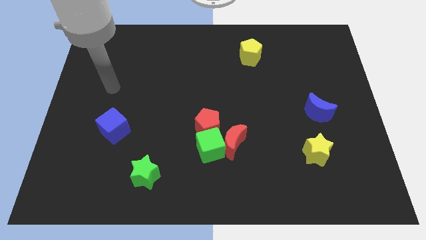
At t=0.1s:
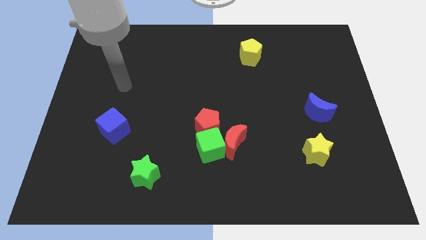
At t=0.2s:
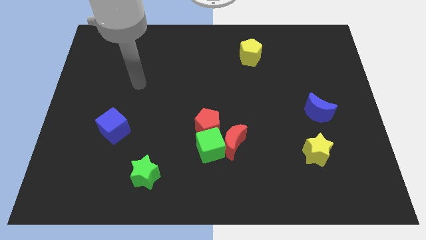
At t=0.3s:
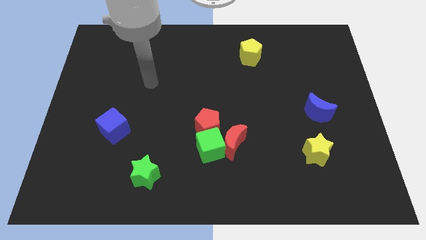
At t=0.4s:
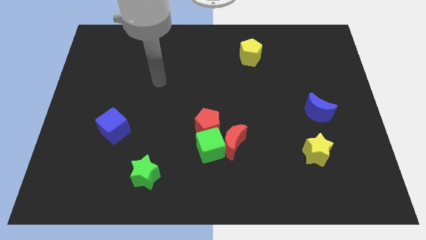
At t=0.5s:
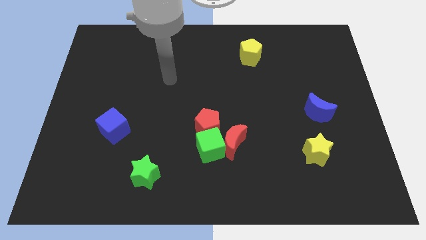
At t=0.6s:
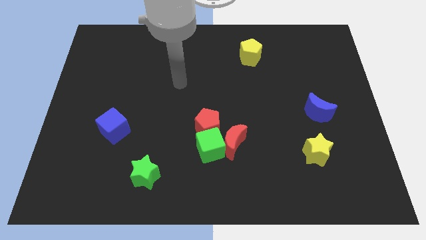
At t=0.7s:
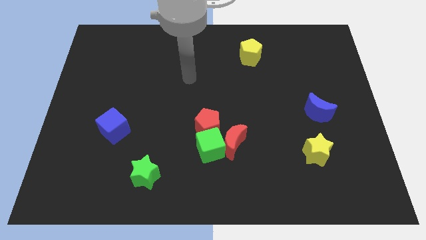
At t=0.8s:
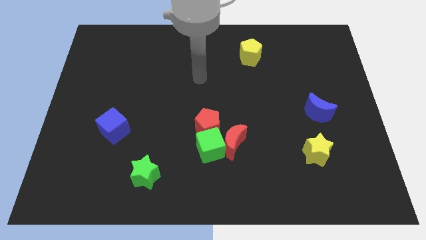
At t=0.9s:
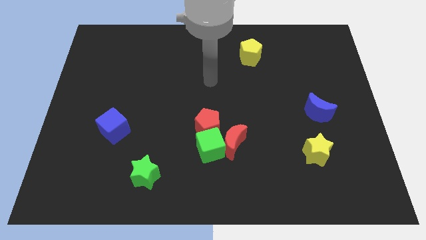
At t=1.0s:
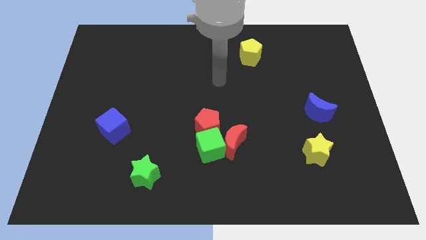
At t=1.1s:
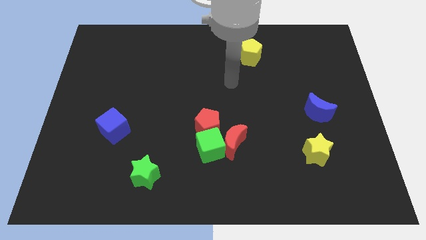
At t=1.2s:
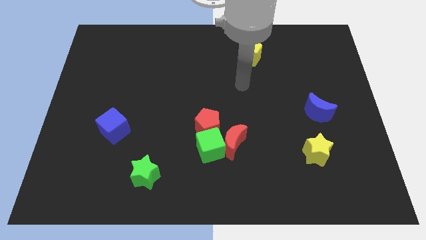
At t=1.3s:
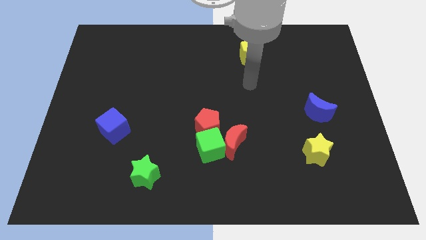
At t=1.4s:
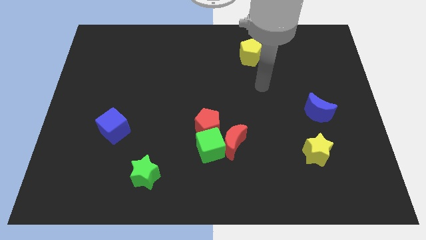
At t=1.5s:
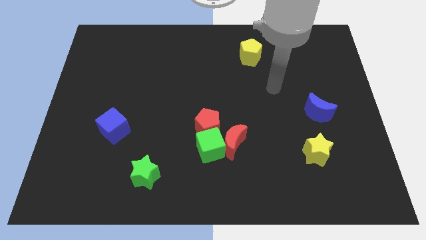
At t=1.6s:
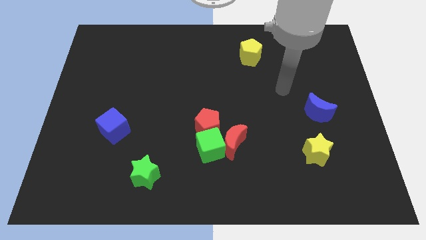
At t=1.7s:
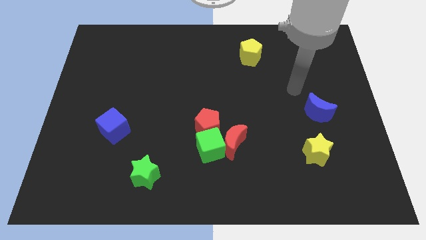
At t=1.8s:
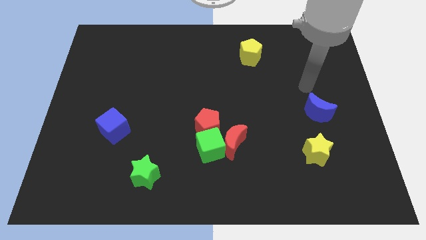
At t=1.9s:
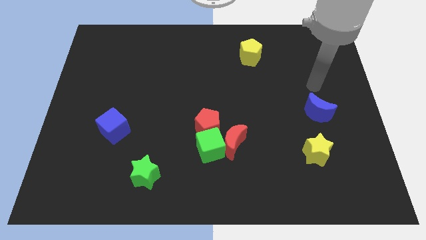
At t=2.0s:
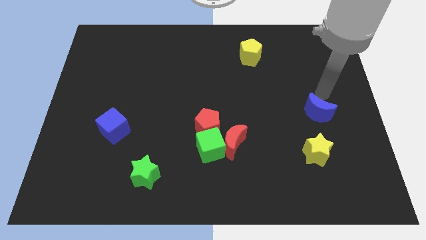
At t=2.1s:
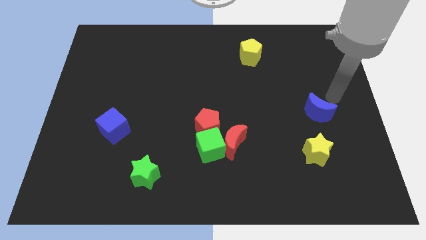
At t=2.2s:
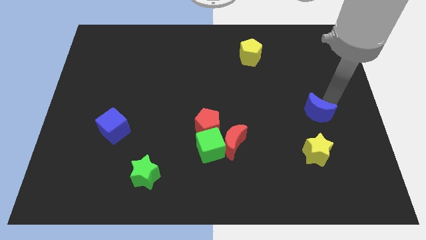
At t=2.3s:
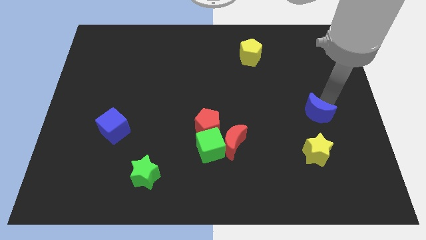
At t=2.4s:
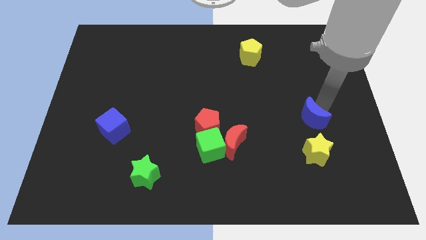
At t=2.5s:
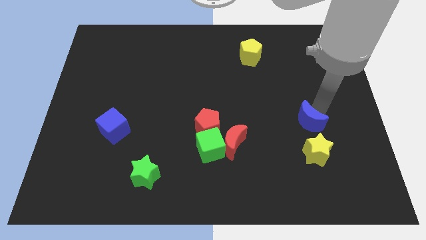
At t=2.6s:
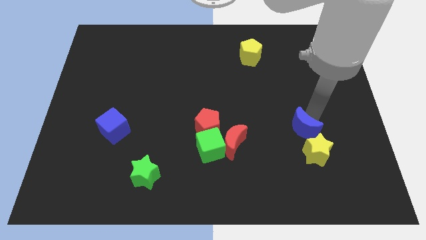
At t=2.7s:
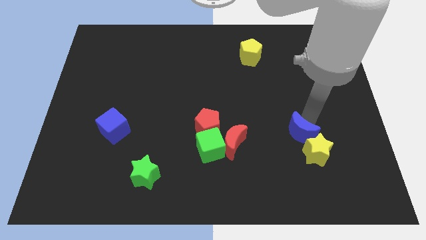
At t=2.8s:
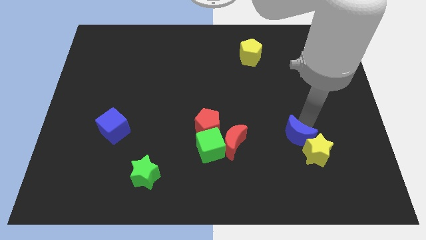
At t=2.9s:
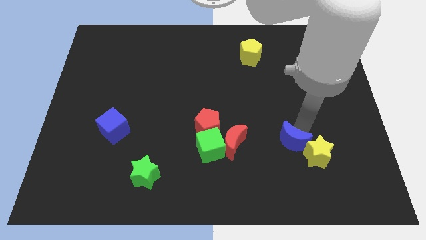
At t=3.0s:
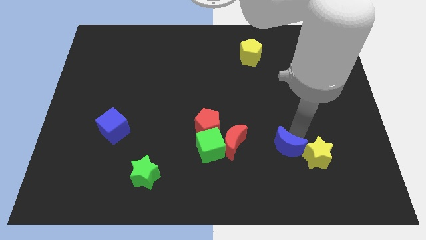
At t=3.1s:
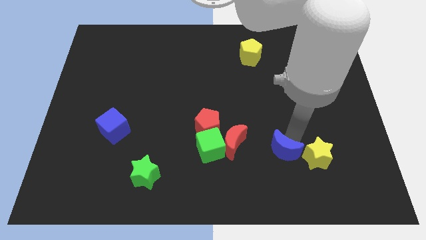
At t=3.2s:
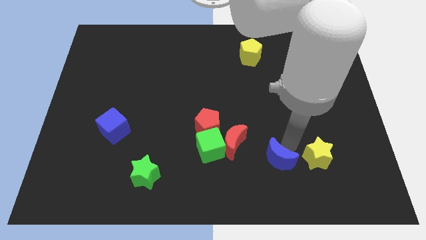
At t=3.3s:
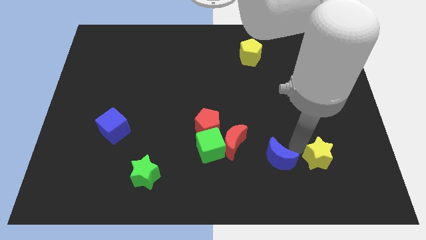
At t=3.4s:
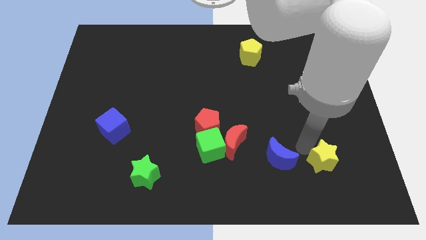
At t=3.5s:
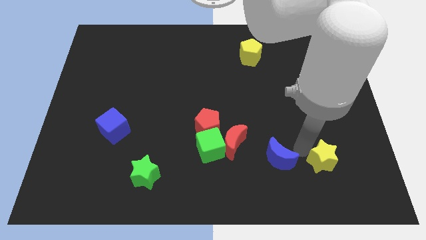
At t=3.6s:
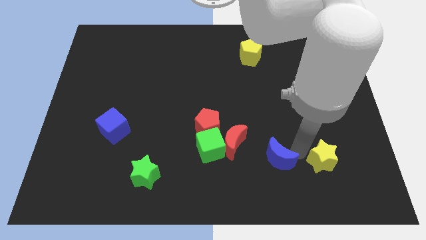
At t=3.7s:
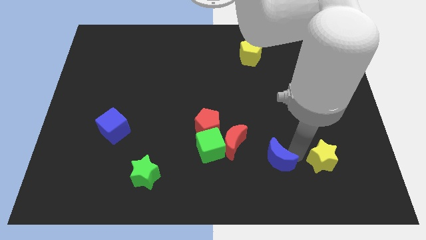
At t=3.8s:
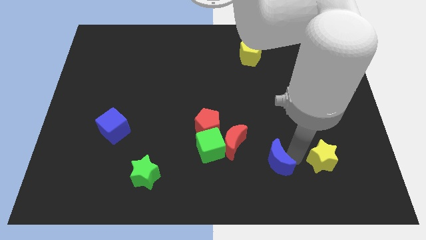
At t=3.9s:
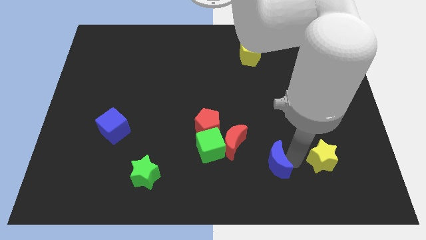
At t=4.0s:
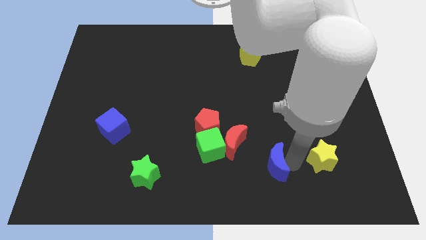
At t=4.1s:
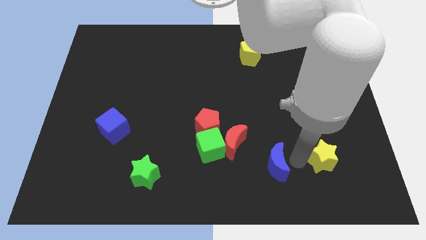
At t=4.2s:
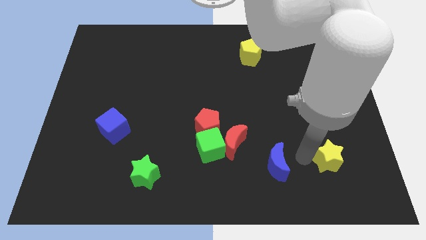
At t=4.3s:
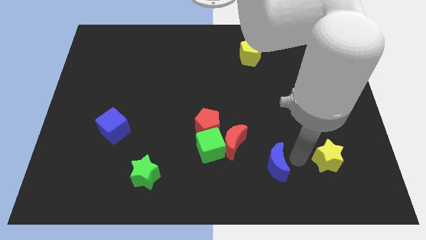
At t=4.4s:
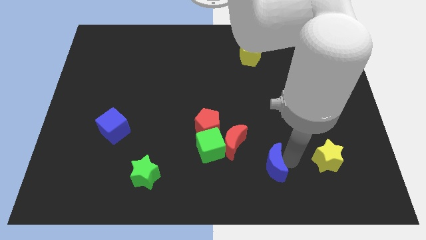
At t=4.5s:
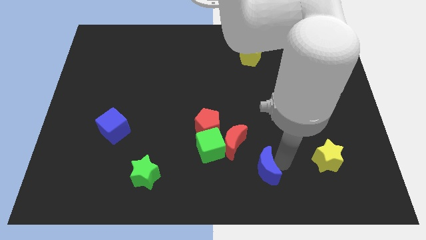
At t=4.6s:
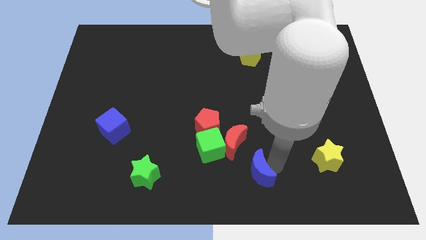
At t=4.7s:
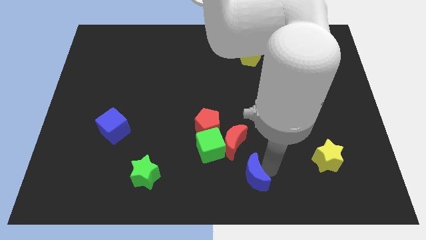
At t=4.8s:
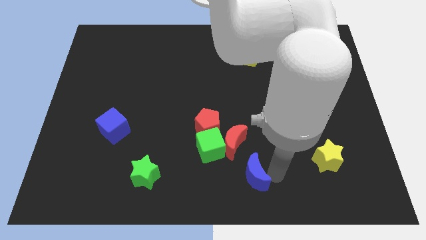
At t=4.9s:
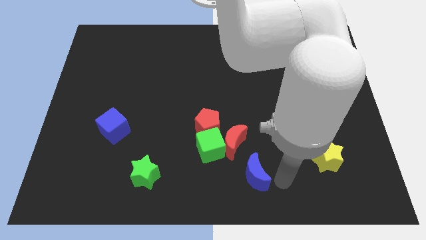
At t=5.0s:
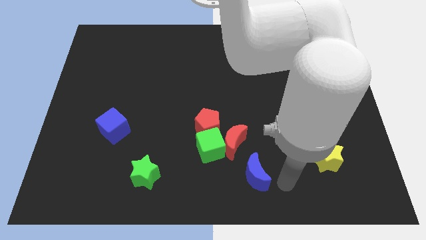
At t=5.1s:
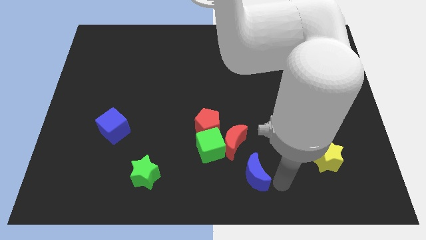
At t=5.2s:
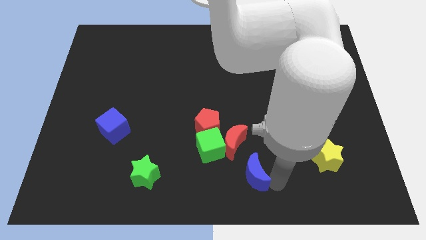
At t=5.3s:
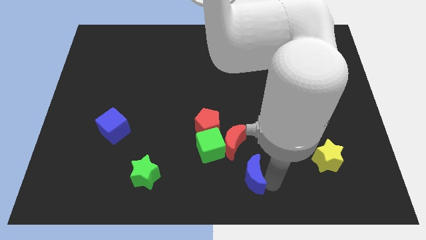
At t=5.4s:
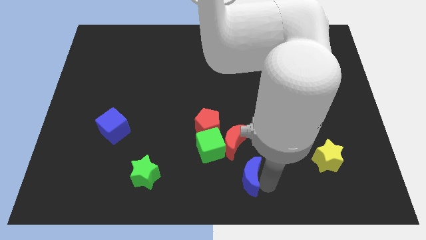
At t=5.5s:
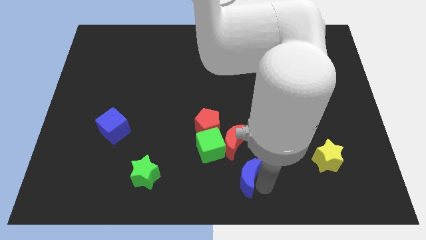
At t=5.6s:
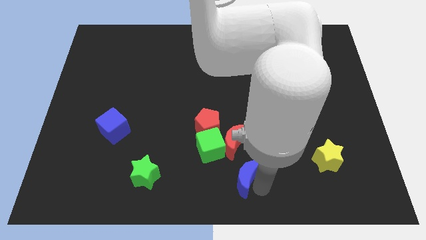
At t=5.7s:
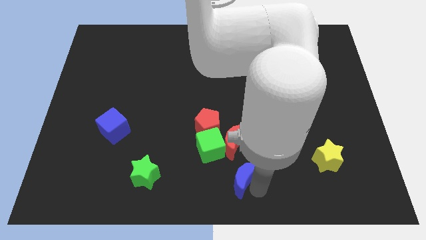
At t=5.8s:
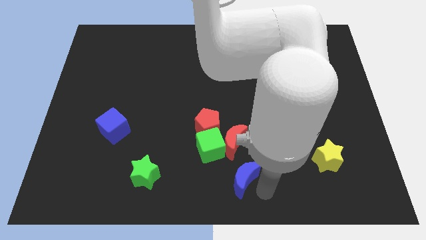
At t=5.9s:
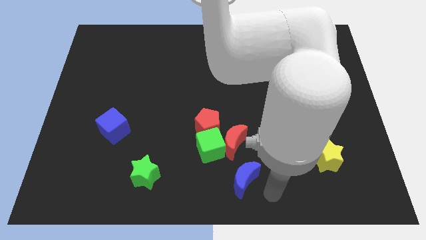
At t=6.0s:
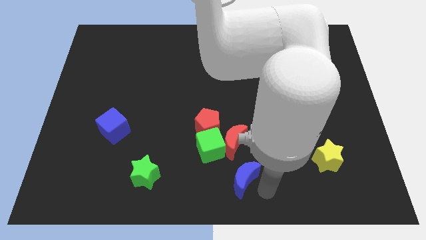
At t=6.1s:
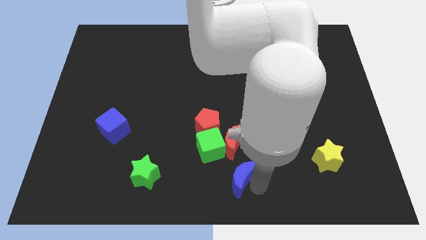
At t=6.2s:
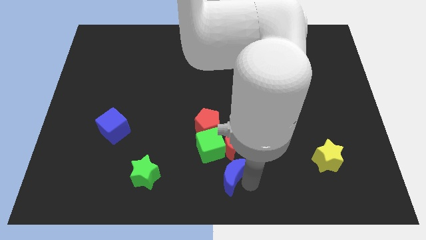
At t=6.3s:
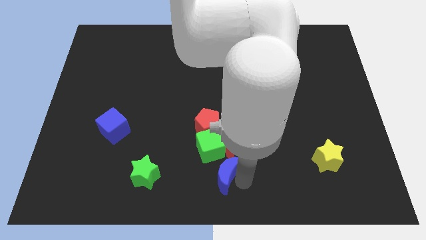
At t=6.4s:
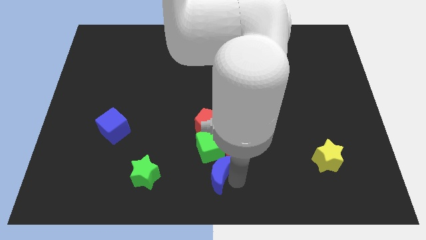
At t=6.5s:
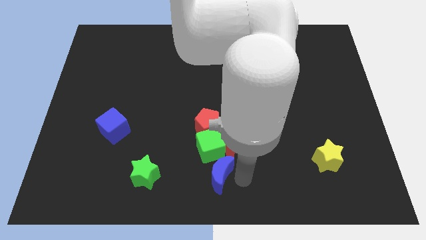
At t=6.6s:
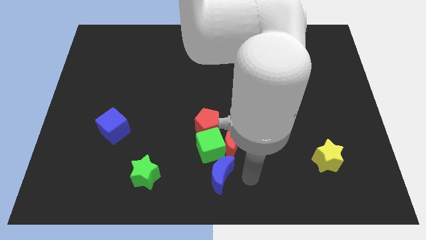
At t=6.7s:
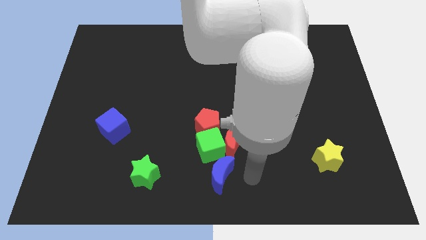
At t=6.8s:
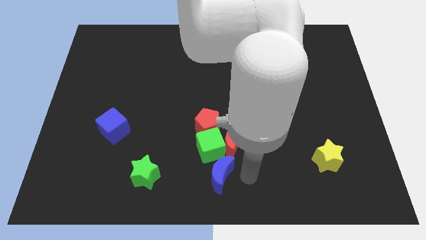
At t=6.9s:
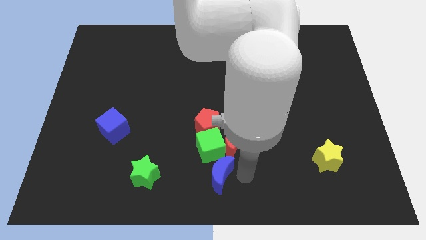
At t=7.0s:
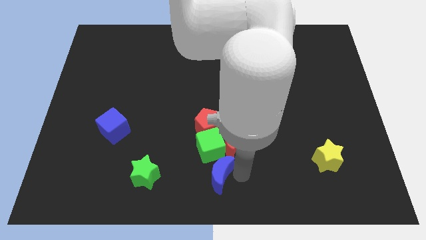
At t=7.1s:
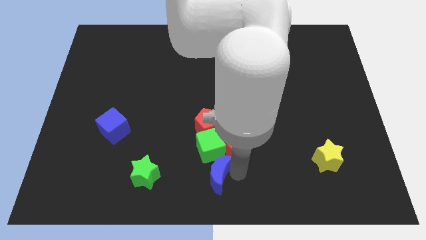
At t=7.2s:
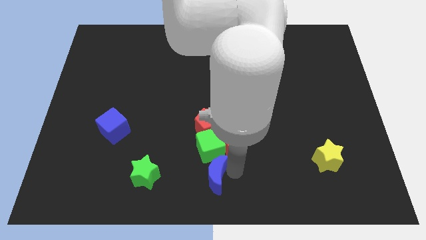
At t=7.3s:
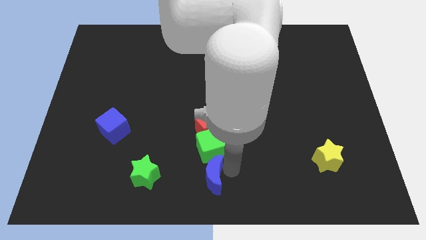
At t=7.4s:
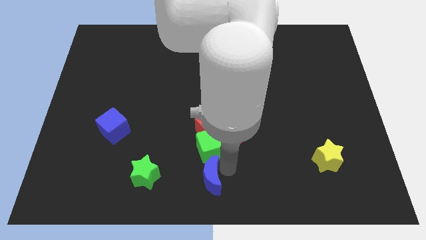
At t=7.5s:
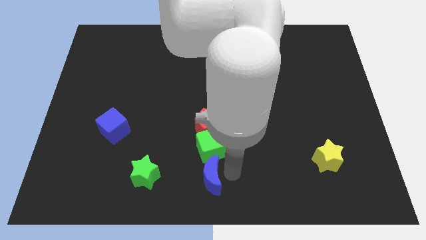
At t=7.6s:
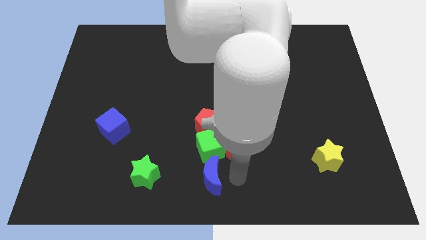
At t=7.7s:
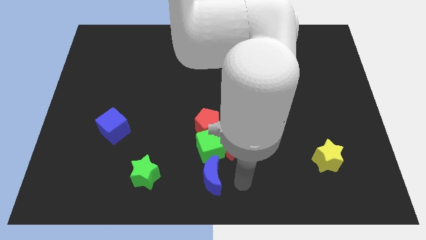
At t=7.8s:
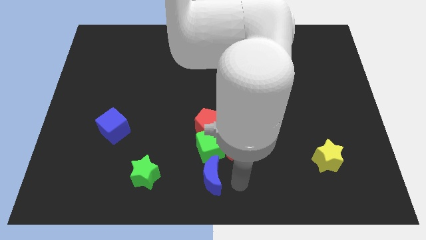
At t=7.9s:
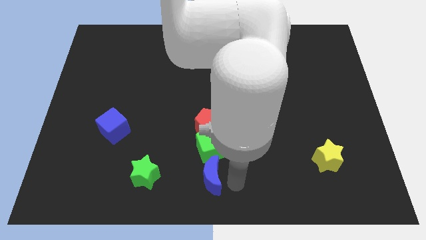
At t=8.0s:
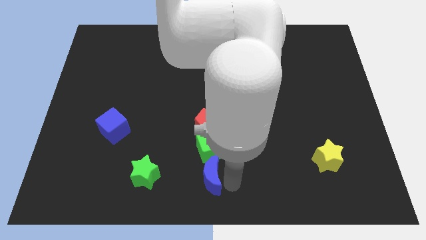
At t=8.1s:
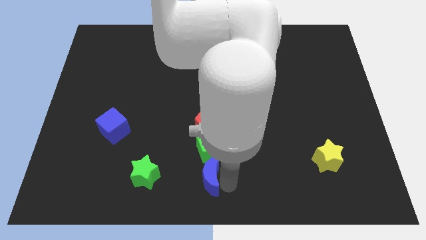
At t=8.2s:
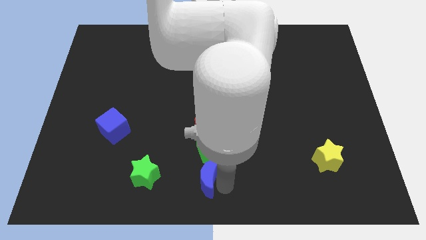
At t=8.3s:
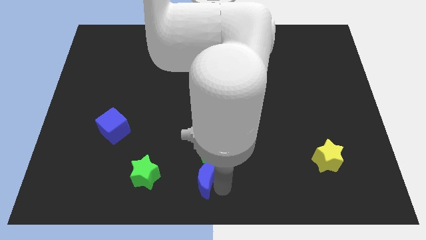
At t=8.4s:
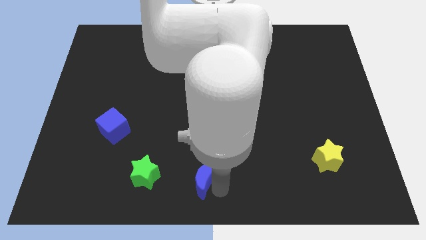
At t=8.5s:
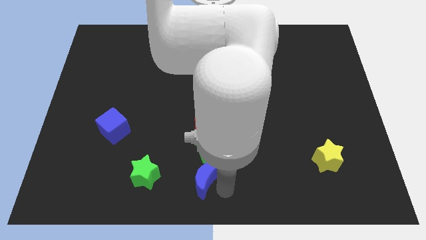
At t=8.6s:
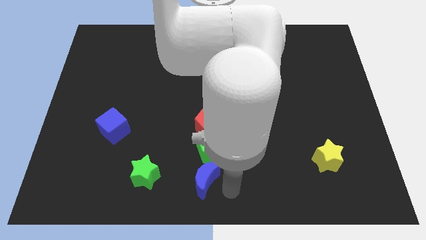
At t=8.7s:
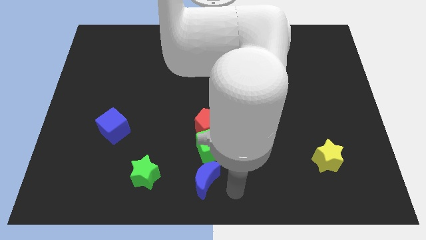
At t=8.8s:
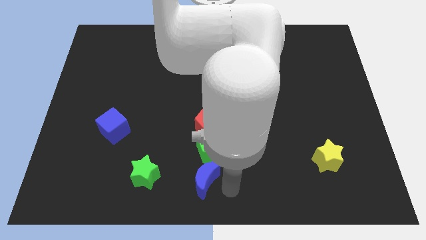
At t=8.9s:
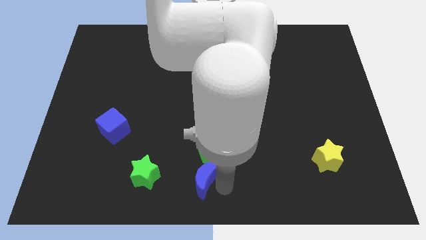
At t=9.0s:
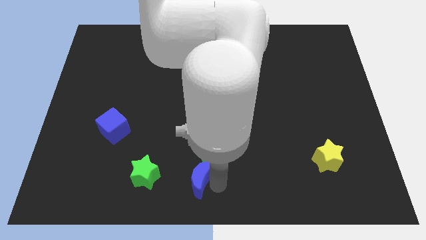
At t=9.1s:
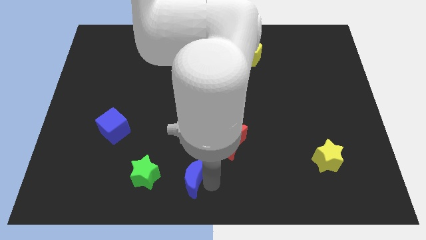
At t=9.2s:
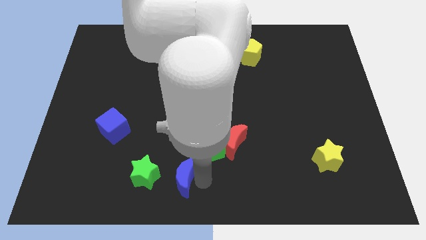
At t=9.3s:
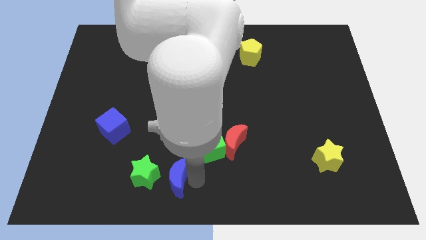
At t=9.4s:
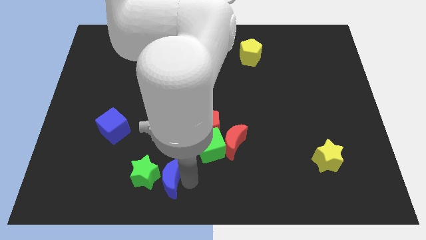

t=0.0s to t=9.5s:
push the blue moon towards the green star
